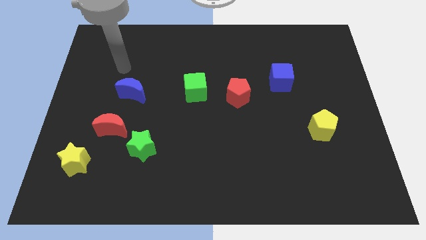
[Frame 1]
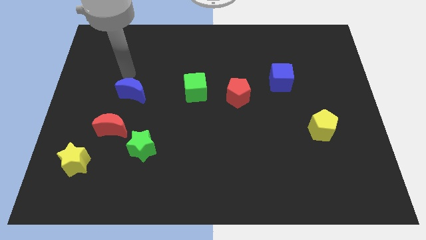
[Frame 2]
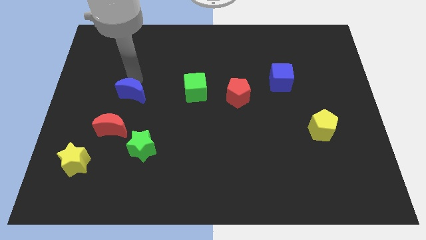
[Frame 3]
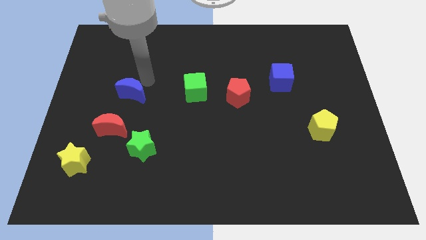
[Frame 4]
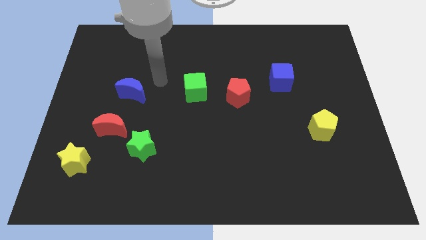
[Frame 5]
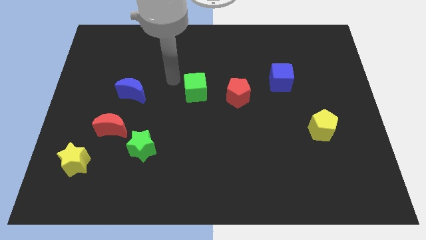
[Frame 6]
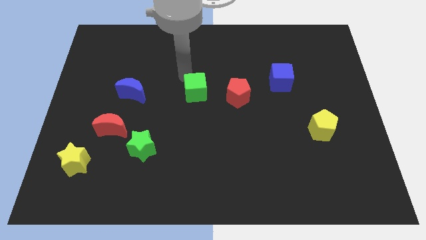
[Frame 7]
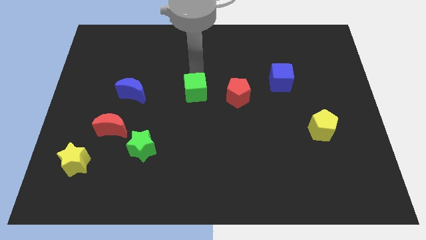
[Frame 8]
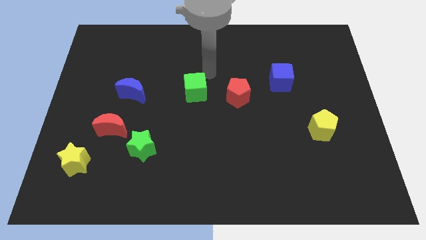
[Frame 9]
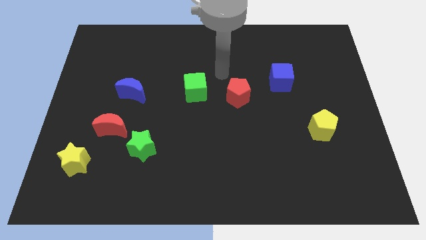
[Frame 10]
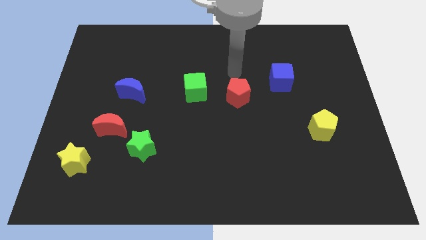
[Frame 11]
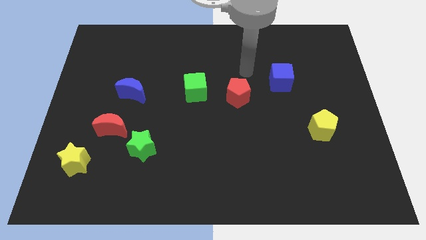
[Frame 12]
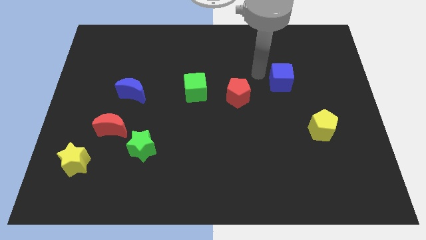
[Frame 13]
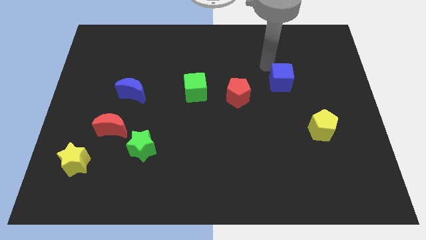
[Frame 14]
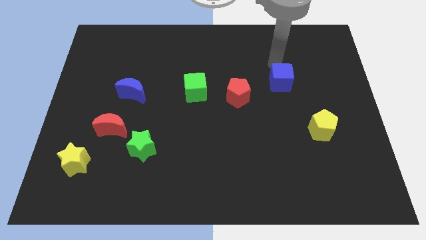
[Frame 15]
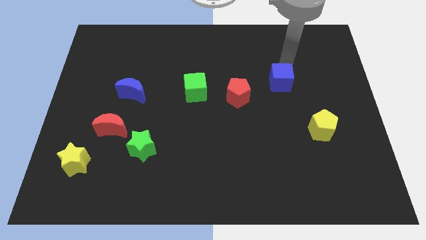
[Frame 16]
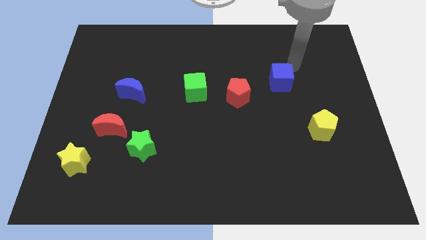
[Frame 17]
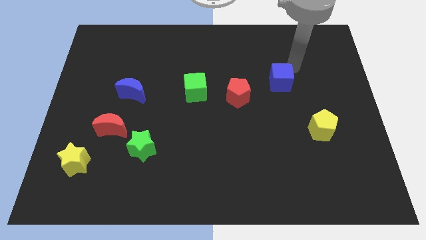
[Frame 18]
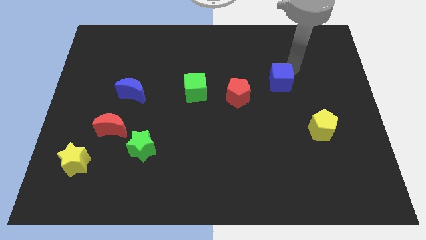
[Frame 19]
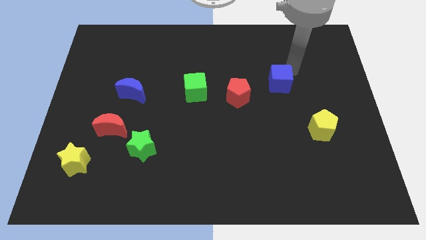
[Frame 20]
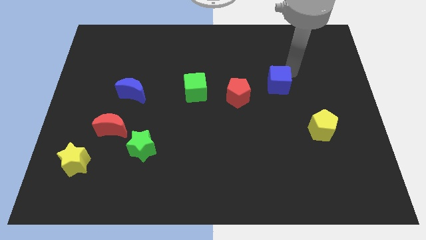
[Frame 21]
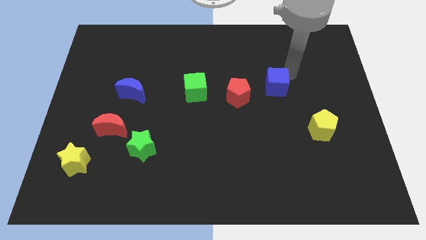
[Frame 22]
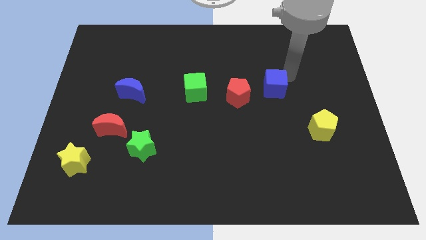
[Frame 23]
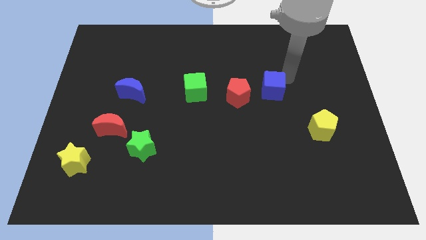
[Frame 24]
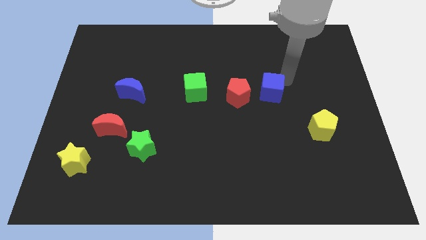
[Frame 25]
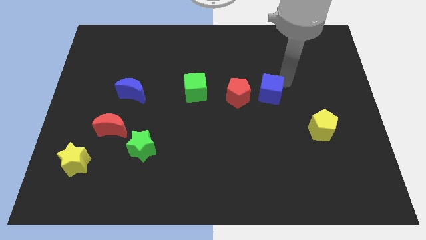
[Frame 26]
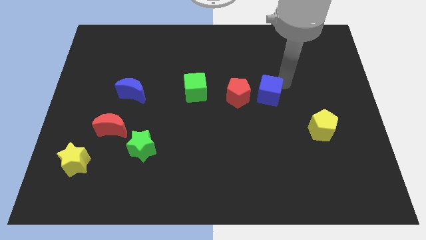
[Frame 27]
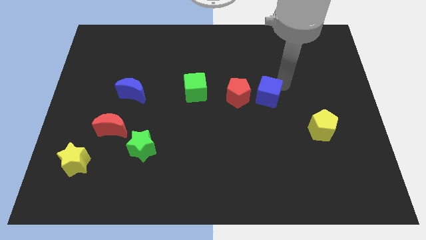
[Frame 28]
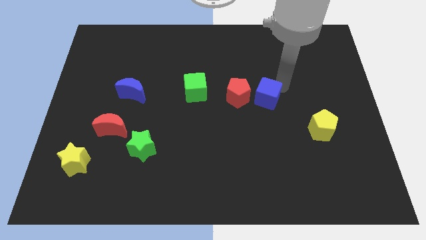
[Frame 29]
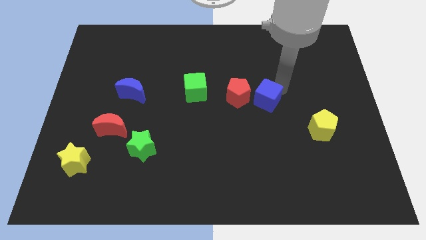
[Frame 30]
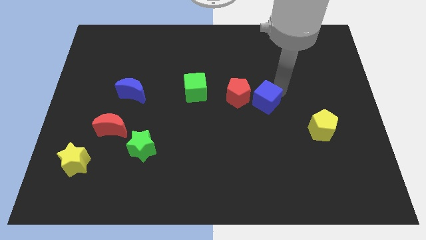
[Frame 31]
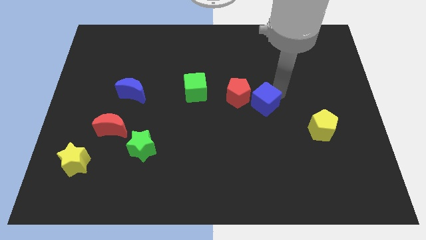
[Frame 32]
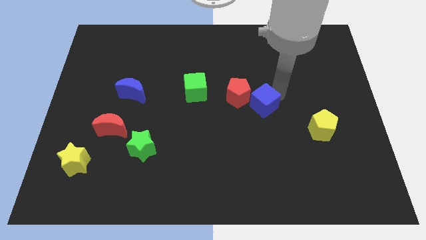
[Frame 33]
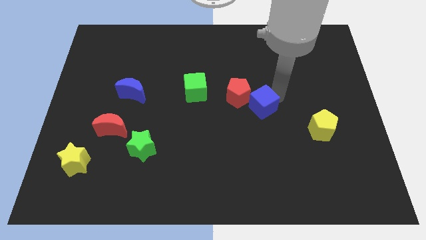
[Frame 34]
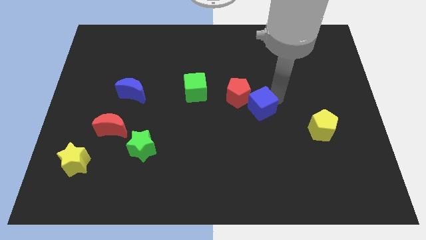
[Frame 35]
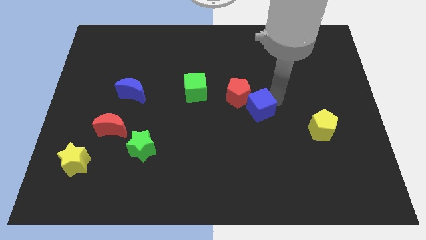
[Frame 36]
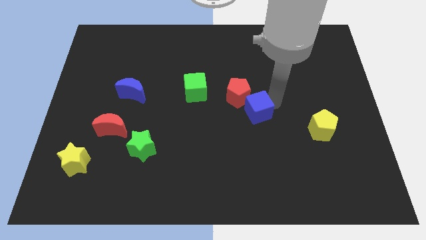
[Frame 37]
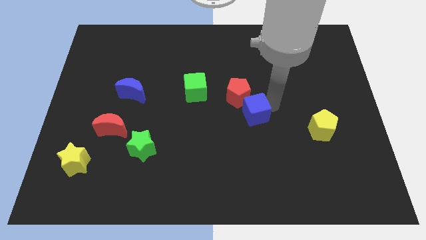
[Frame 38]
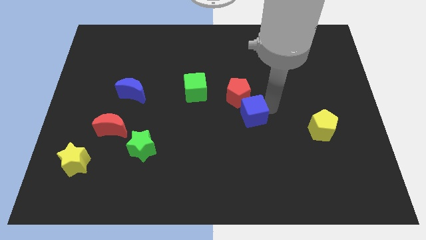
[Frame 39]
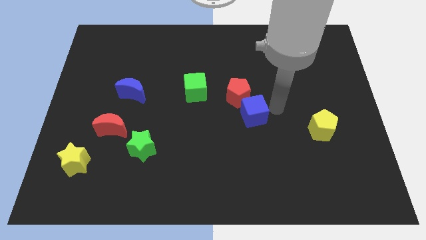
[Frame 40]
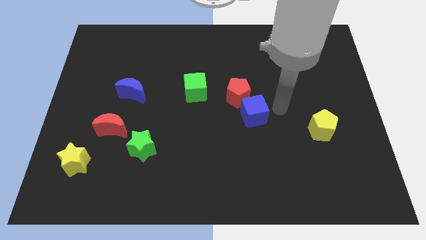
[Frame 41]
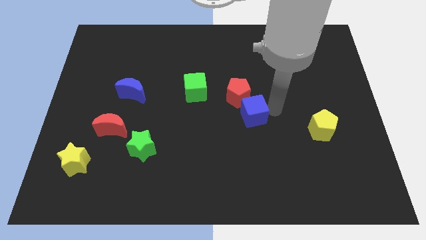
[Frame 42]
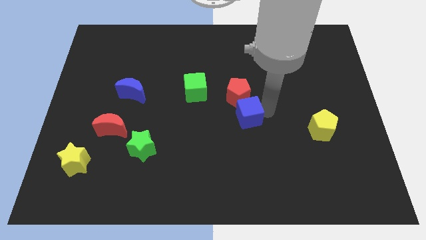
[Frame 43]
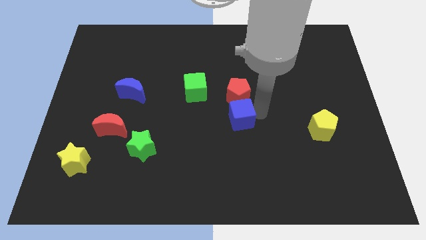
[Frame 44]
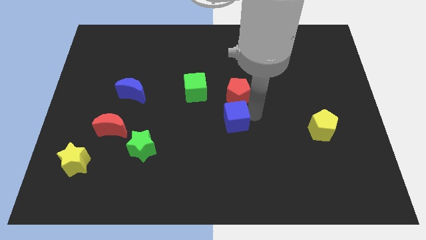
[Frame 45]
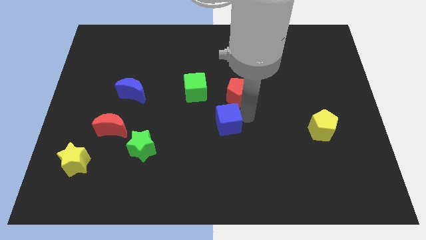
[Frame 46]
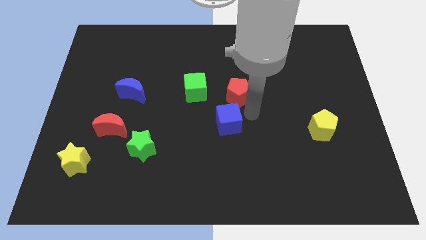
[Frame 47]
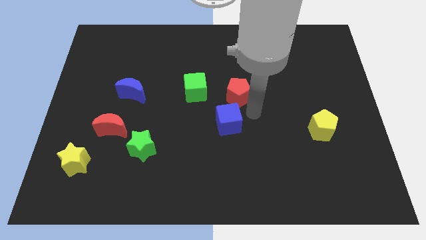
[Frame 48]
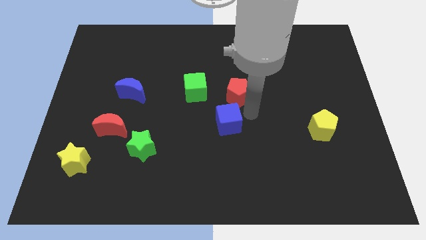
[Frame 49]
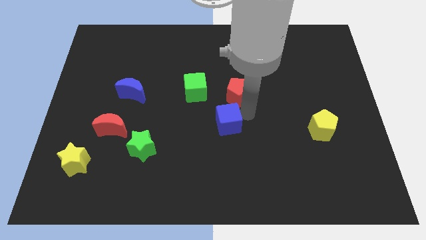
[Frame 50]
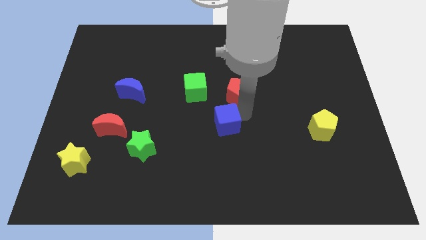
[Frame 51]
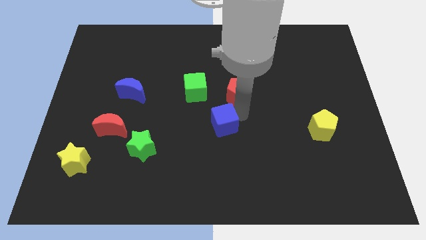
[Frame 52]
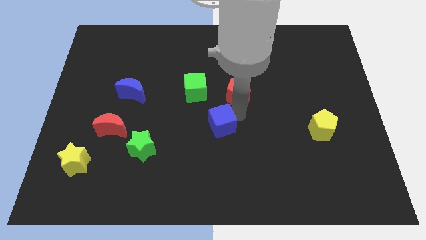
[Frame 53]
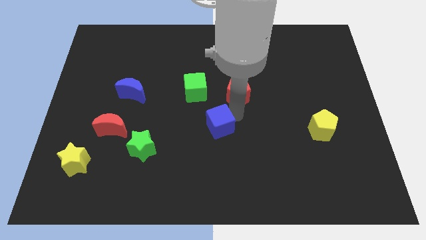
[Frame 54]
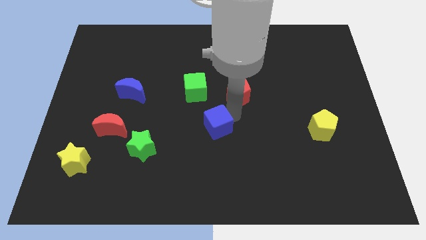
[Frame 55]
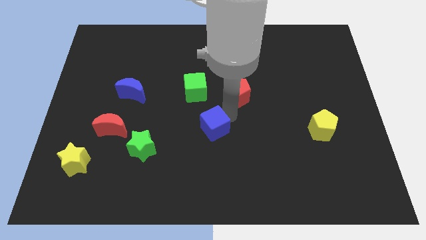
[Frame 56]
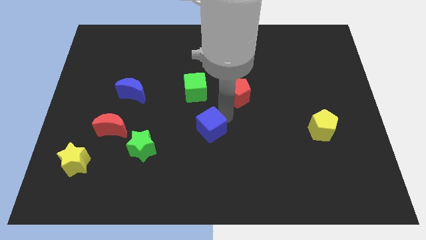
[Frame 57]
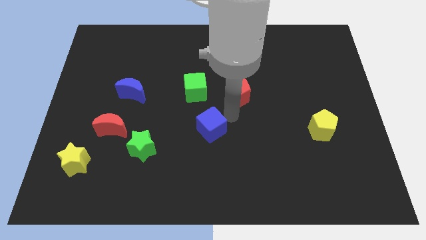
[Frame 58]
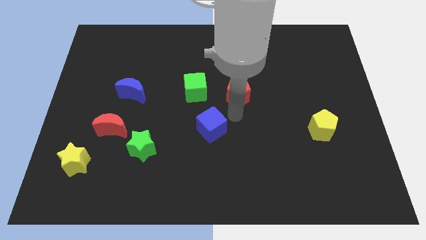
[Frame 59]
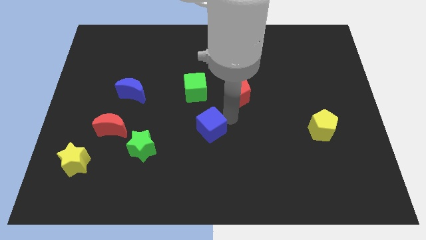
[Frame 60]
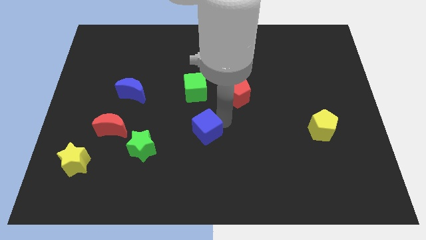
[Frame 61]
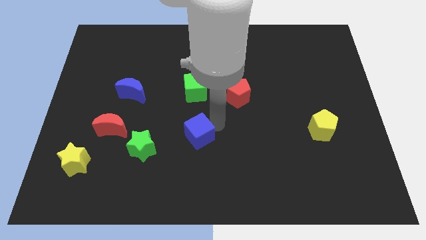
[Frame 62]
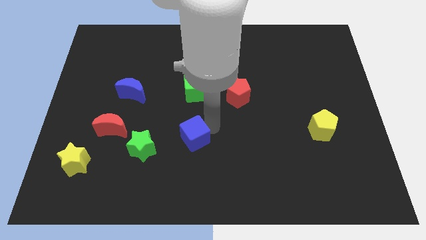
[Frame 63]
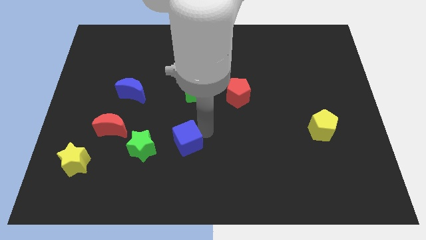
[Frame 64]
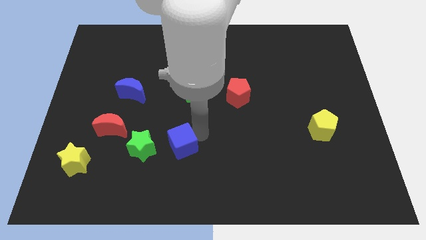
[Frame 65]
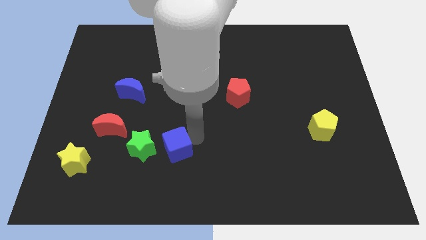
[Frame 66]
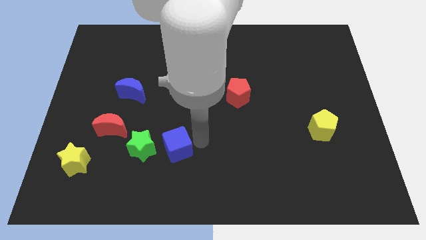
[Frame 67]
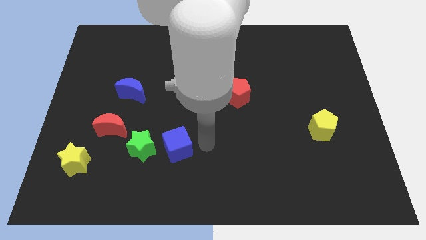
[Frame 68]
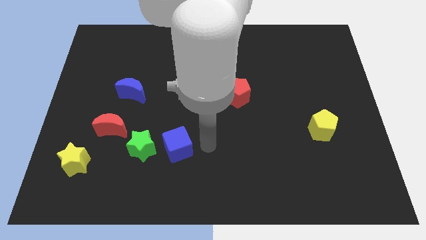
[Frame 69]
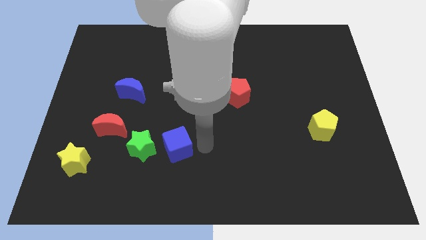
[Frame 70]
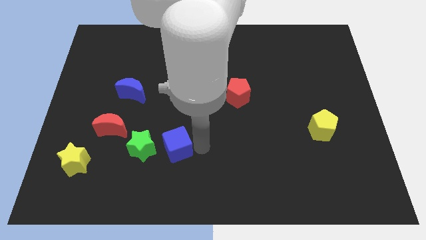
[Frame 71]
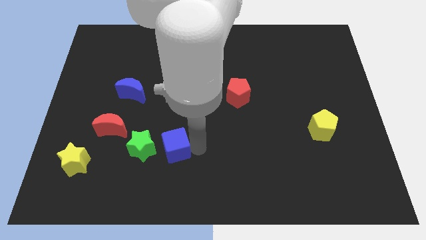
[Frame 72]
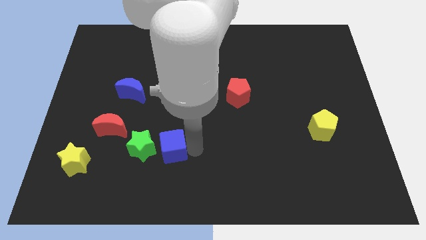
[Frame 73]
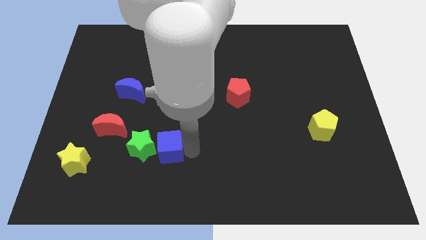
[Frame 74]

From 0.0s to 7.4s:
push the blue cube close to the green star
